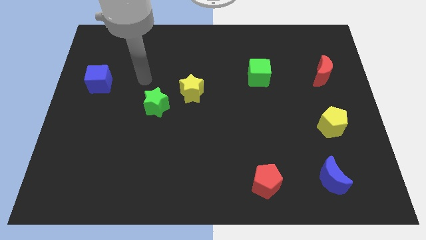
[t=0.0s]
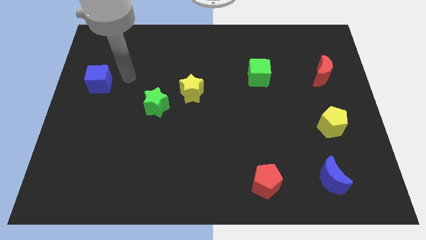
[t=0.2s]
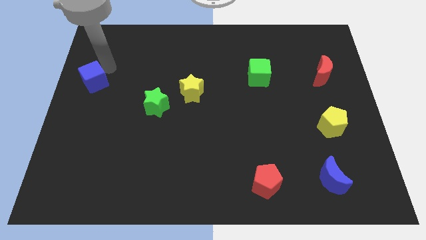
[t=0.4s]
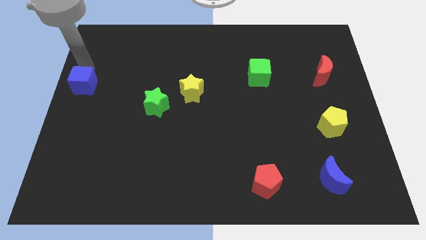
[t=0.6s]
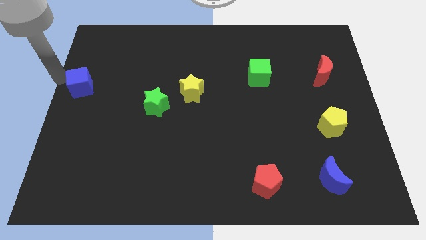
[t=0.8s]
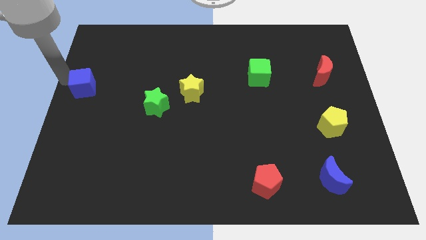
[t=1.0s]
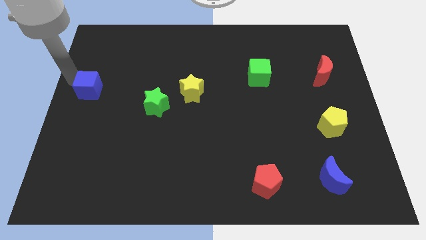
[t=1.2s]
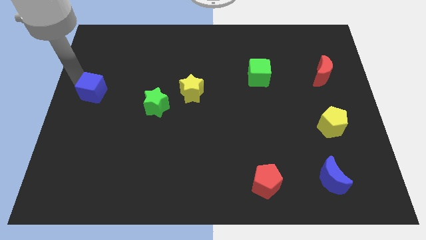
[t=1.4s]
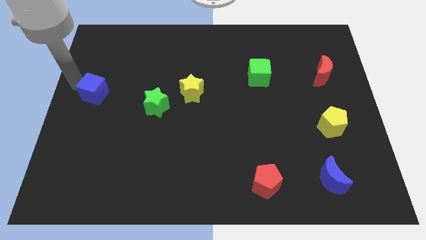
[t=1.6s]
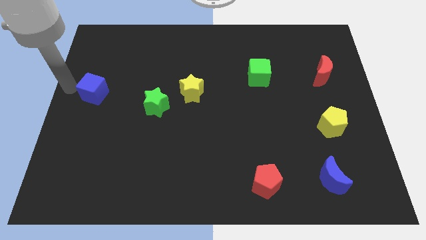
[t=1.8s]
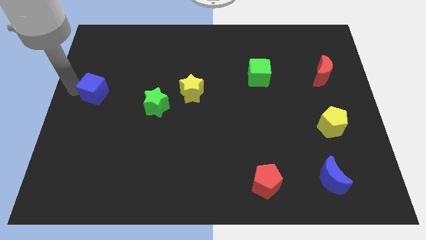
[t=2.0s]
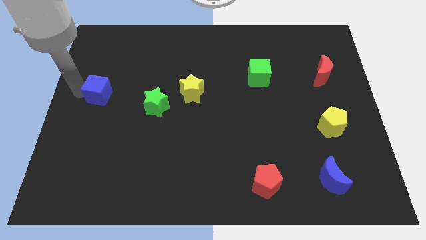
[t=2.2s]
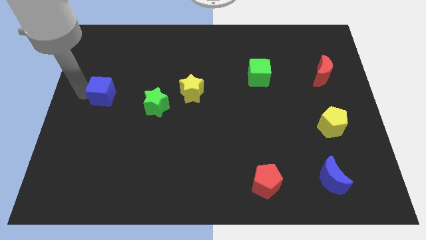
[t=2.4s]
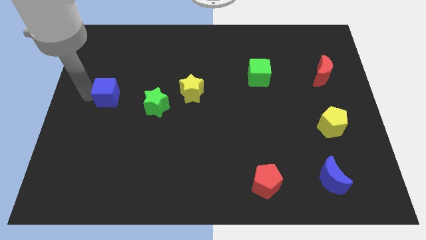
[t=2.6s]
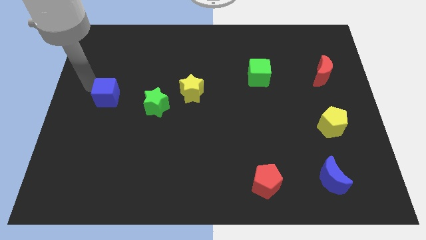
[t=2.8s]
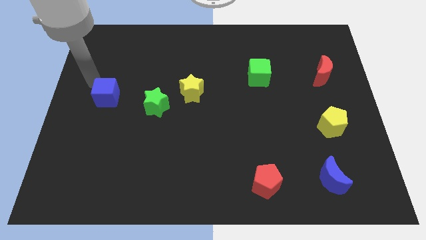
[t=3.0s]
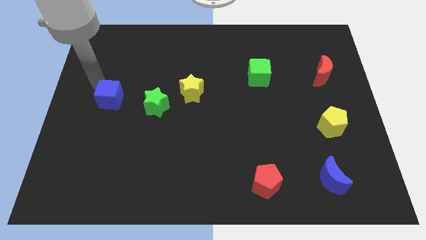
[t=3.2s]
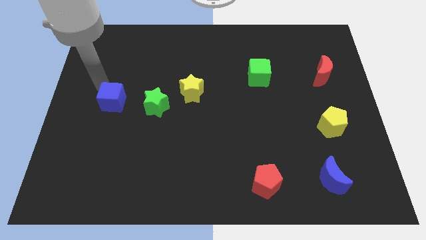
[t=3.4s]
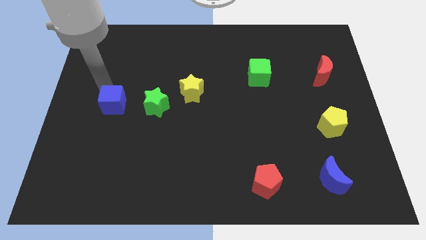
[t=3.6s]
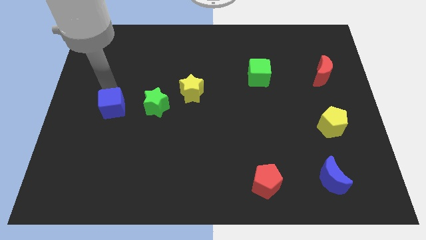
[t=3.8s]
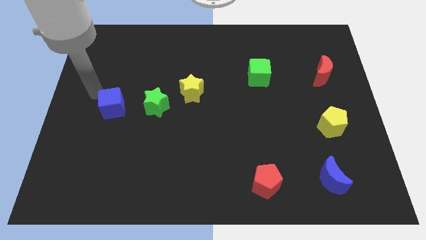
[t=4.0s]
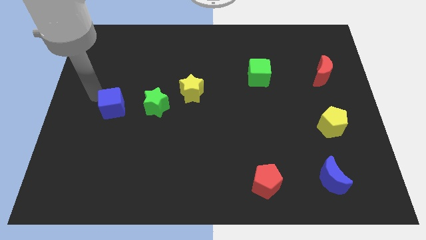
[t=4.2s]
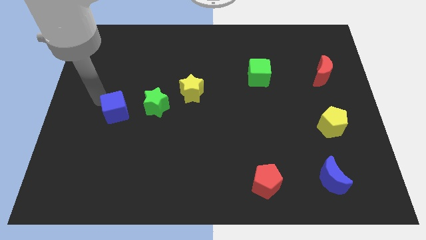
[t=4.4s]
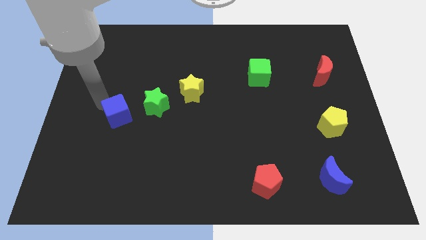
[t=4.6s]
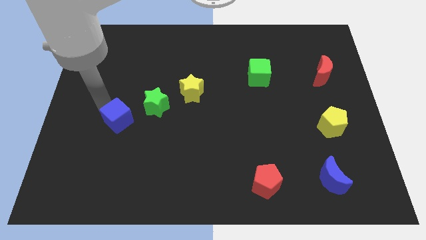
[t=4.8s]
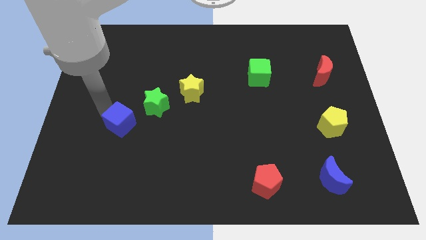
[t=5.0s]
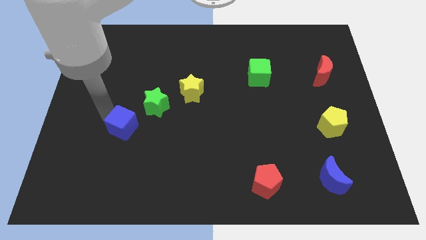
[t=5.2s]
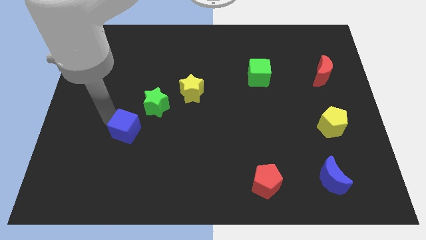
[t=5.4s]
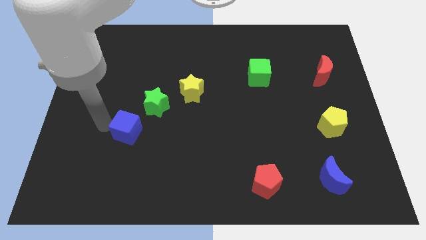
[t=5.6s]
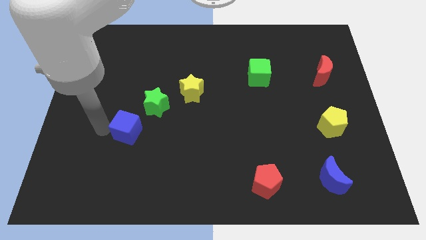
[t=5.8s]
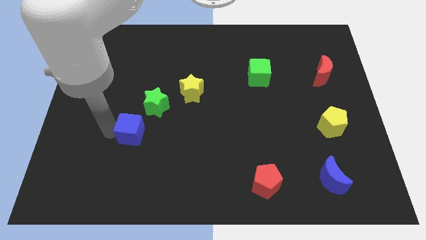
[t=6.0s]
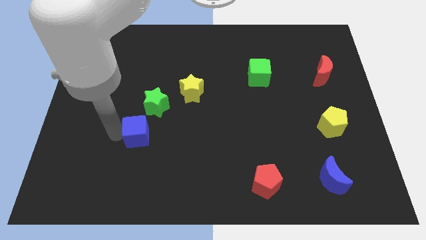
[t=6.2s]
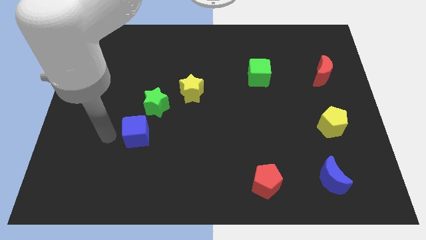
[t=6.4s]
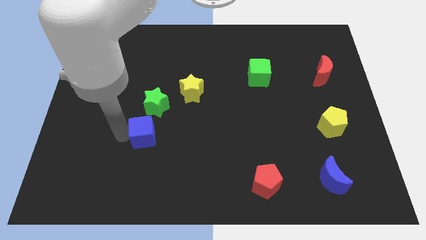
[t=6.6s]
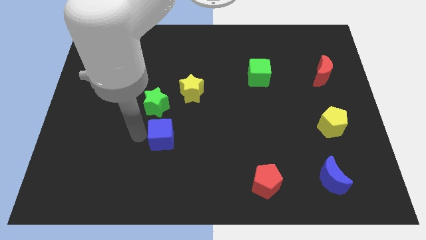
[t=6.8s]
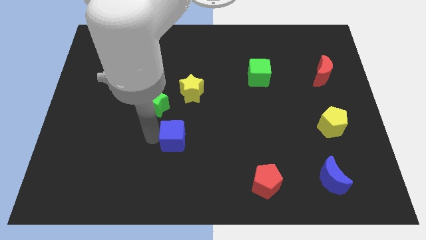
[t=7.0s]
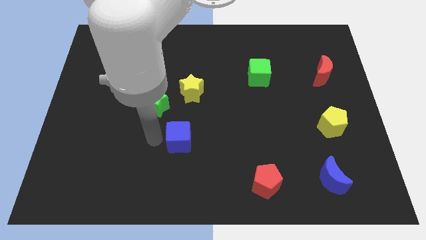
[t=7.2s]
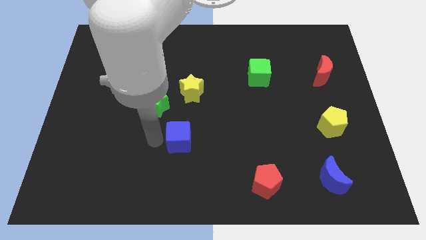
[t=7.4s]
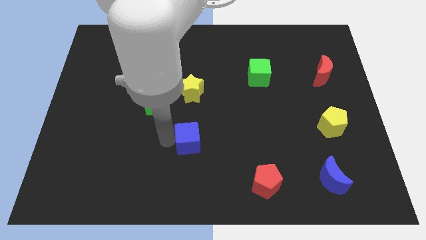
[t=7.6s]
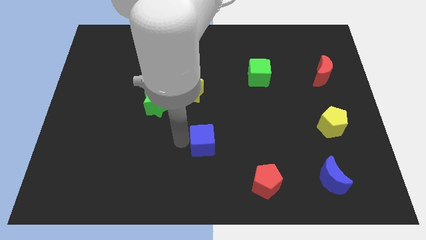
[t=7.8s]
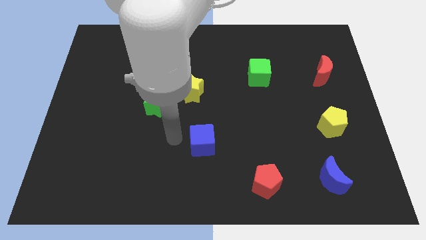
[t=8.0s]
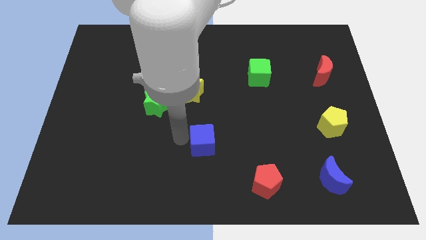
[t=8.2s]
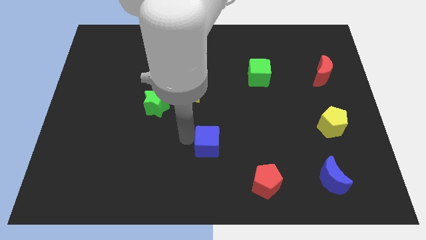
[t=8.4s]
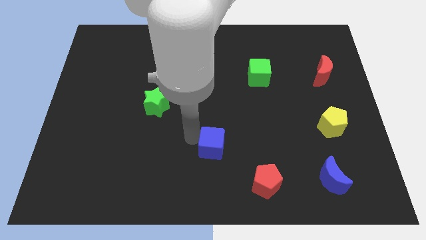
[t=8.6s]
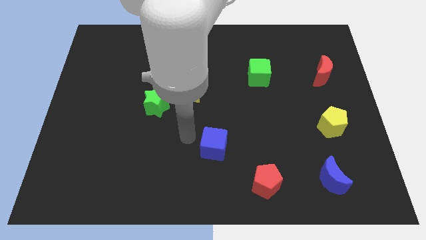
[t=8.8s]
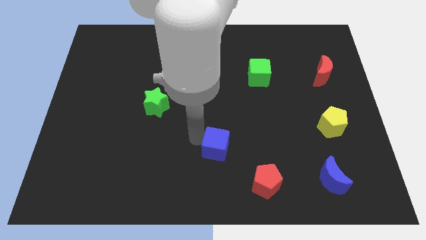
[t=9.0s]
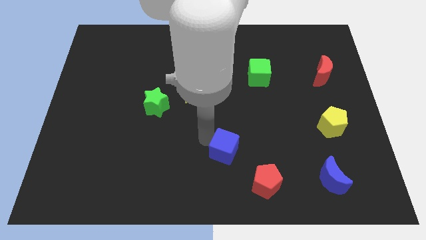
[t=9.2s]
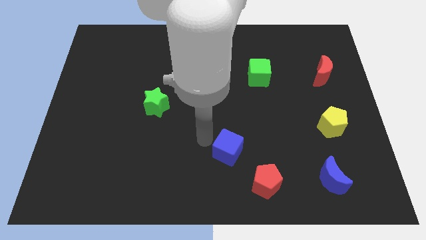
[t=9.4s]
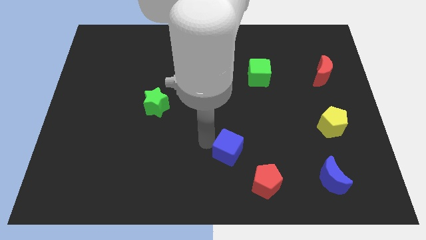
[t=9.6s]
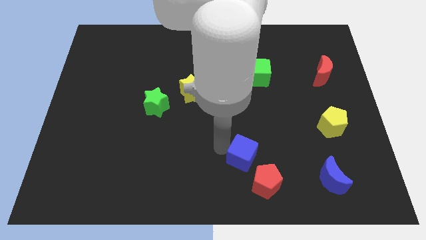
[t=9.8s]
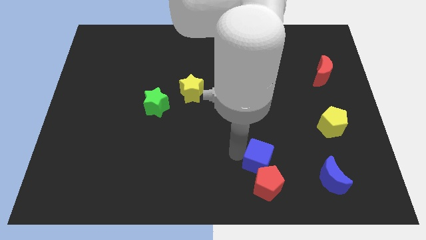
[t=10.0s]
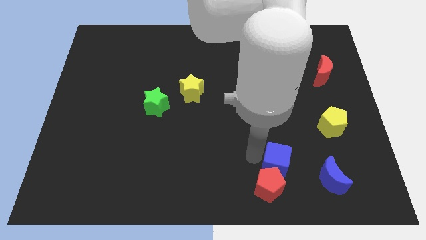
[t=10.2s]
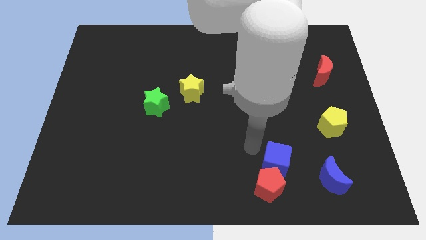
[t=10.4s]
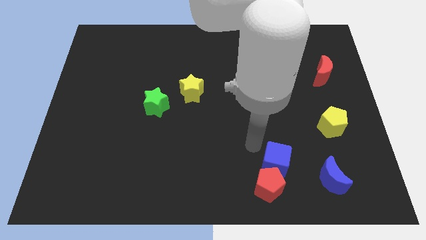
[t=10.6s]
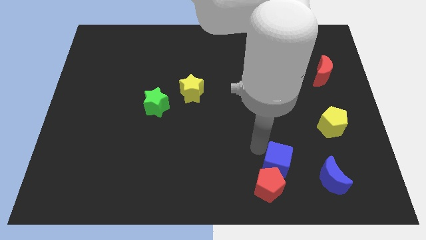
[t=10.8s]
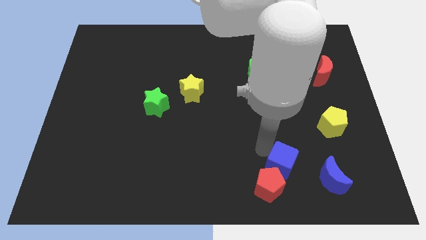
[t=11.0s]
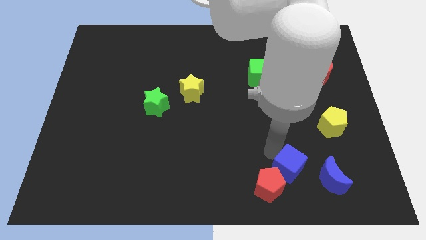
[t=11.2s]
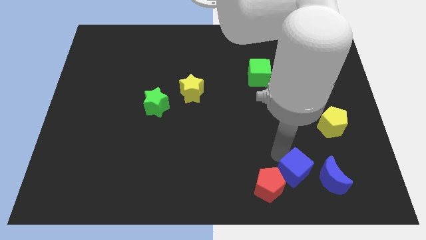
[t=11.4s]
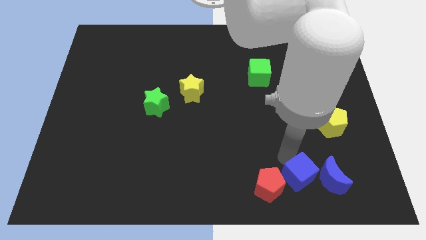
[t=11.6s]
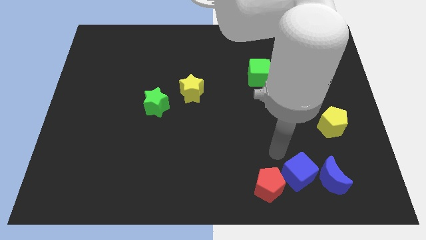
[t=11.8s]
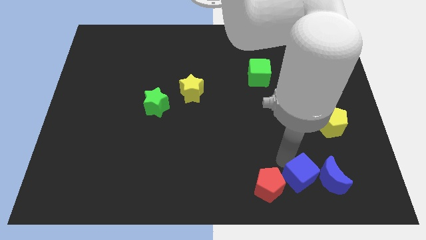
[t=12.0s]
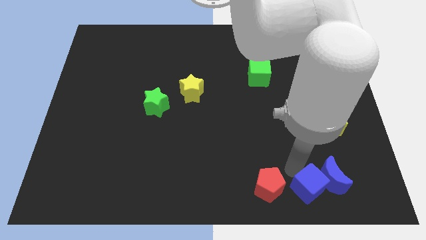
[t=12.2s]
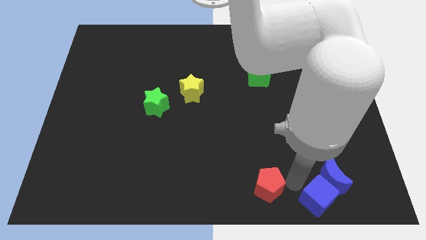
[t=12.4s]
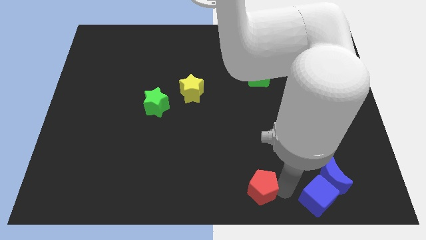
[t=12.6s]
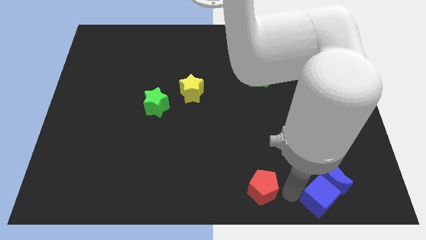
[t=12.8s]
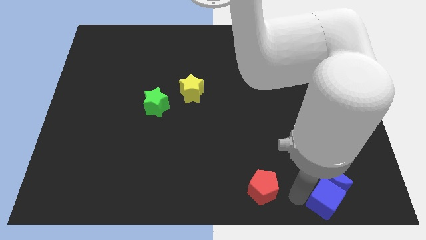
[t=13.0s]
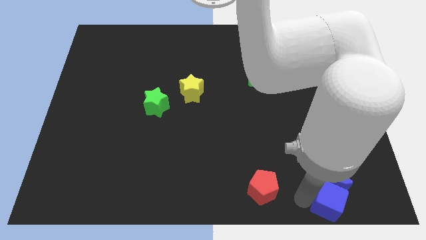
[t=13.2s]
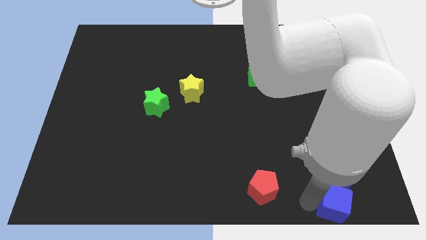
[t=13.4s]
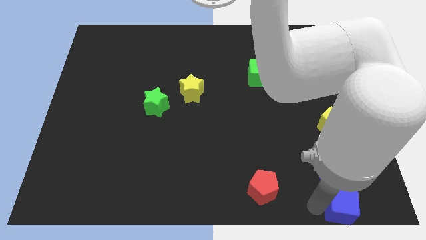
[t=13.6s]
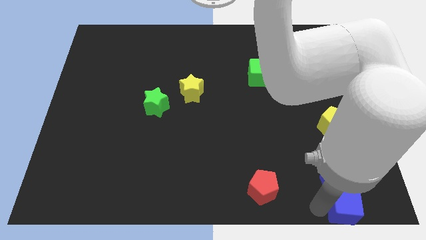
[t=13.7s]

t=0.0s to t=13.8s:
slide the blue cube to the bottom right of the board

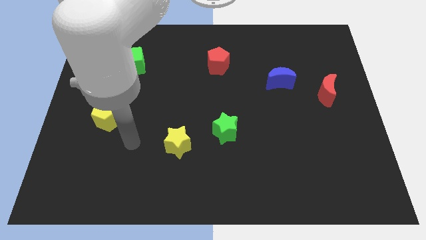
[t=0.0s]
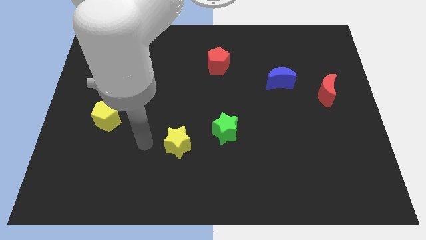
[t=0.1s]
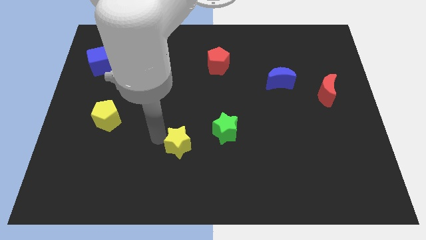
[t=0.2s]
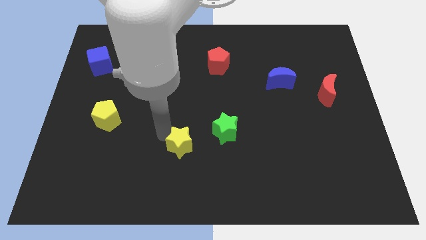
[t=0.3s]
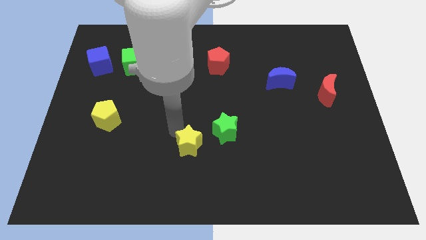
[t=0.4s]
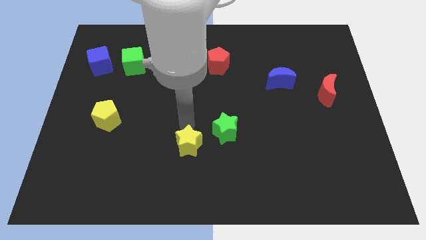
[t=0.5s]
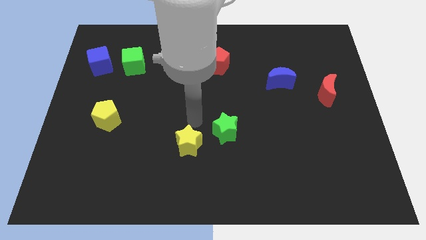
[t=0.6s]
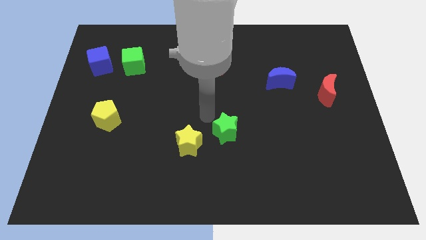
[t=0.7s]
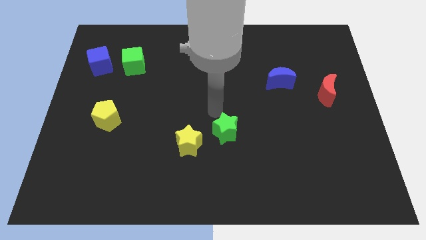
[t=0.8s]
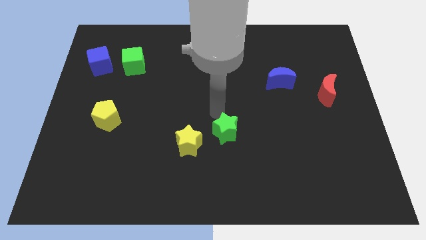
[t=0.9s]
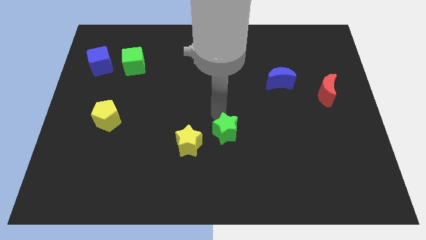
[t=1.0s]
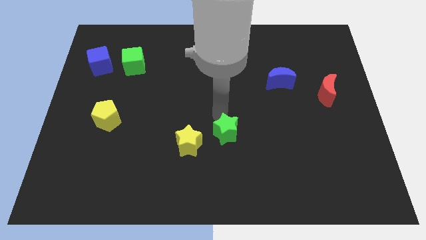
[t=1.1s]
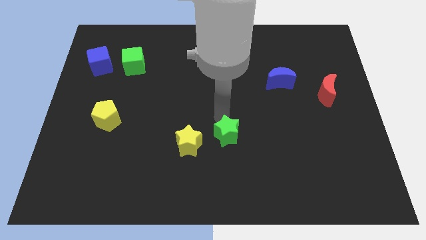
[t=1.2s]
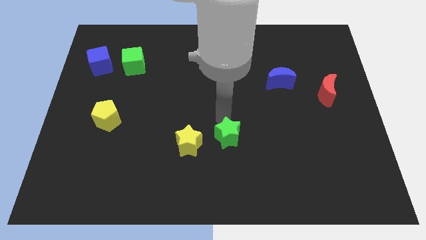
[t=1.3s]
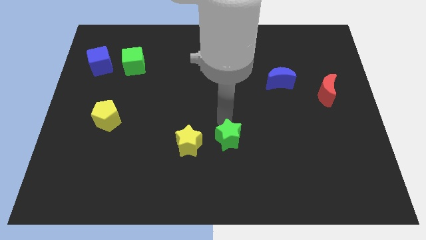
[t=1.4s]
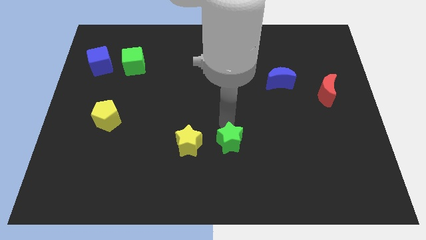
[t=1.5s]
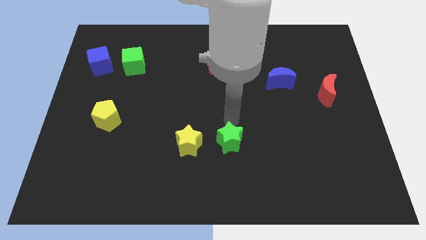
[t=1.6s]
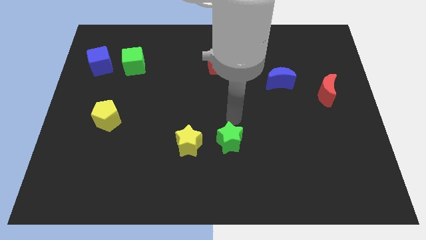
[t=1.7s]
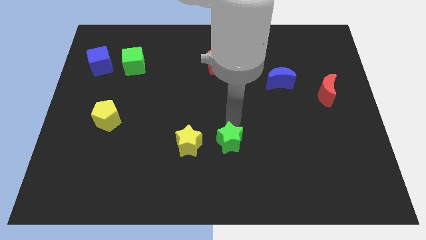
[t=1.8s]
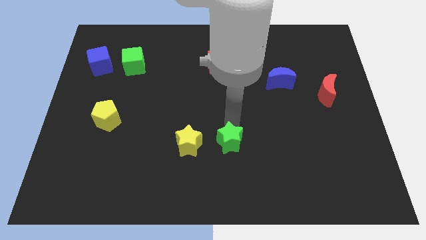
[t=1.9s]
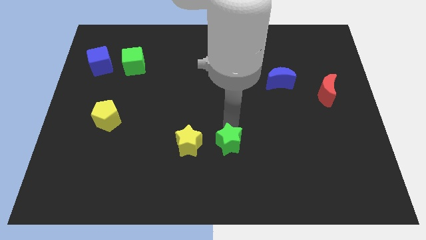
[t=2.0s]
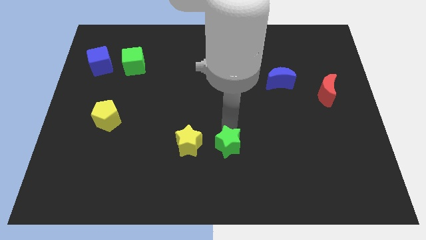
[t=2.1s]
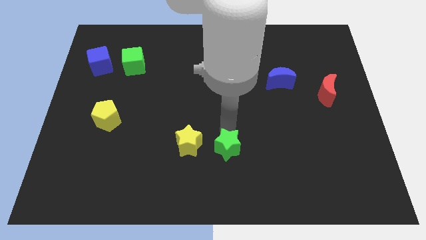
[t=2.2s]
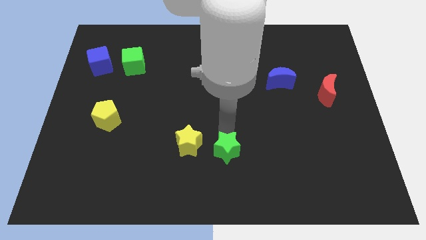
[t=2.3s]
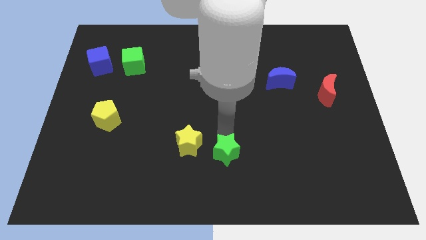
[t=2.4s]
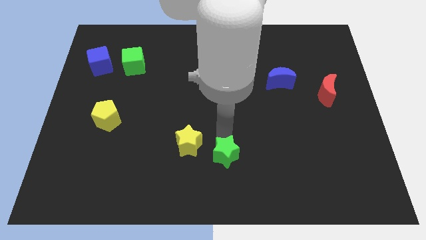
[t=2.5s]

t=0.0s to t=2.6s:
put the green star to the bottom
